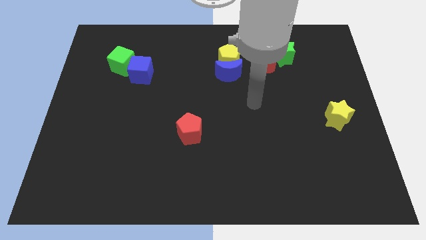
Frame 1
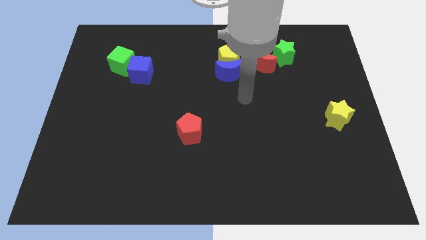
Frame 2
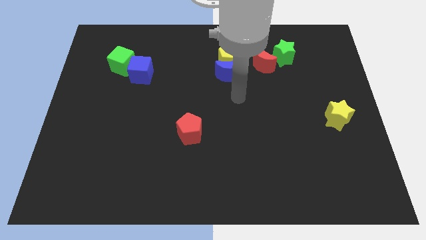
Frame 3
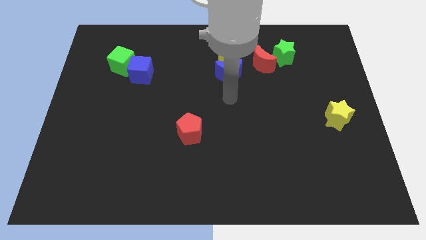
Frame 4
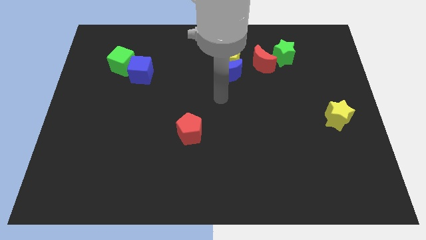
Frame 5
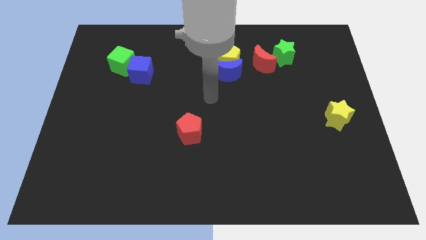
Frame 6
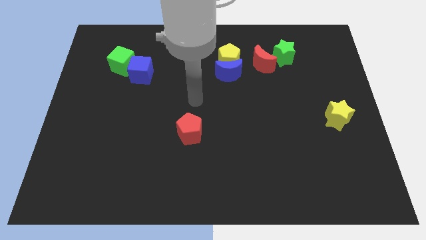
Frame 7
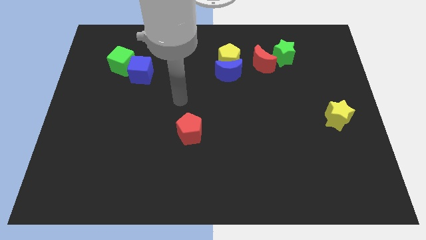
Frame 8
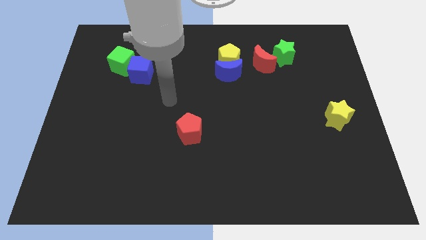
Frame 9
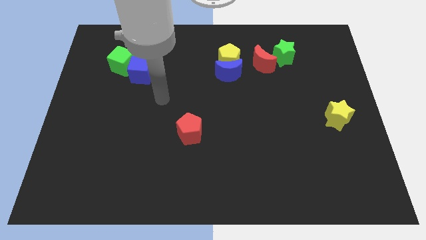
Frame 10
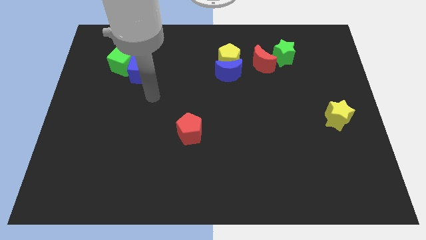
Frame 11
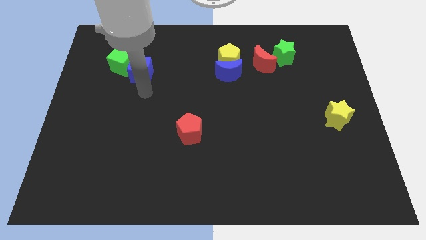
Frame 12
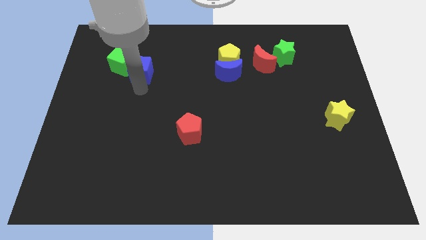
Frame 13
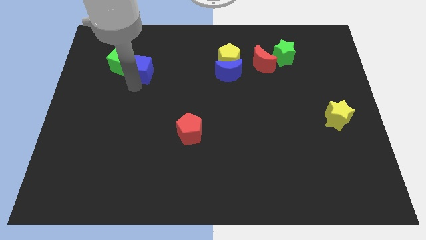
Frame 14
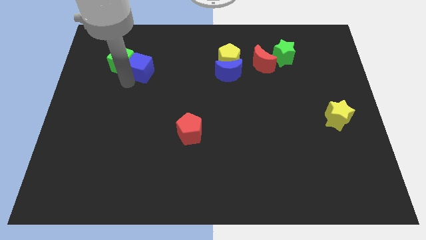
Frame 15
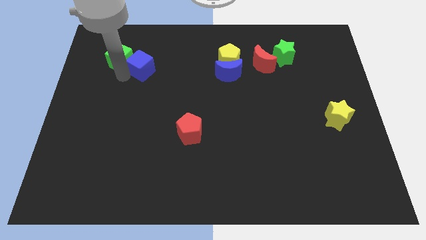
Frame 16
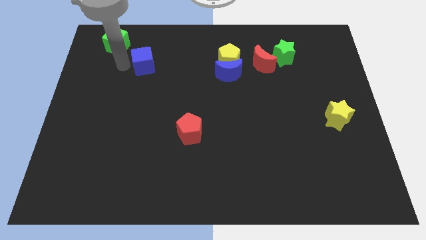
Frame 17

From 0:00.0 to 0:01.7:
separate the blue cube from the green cube

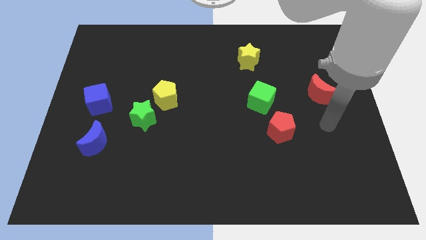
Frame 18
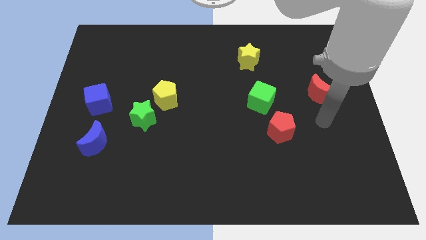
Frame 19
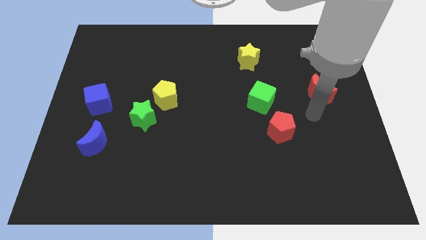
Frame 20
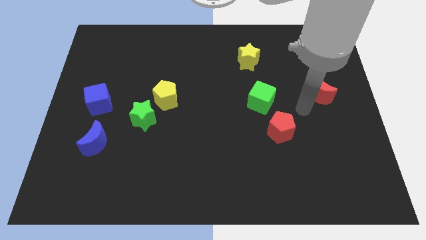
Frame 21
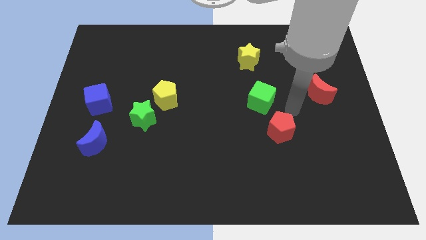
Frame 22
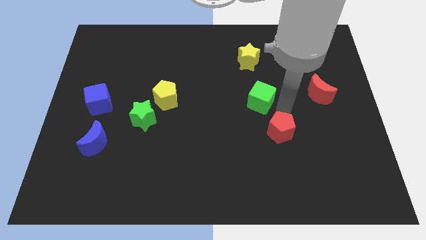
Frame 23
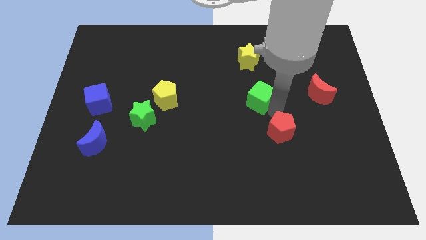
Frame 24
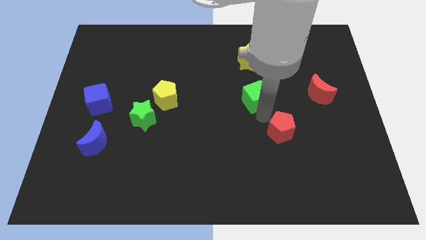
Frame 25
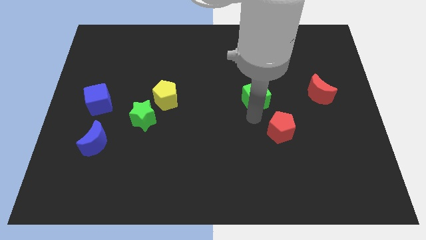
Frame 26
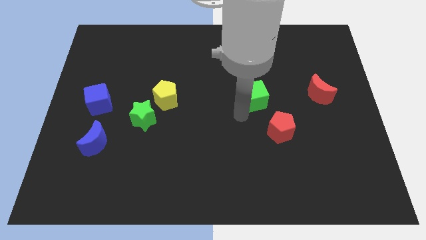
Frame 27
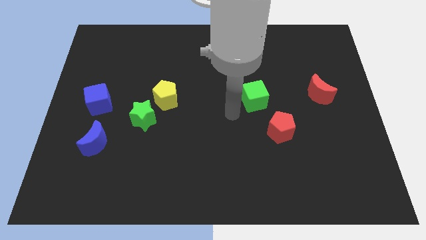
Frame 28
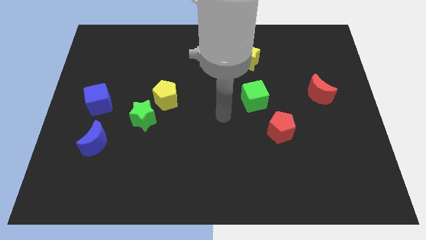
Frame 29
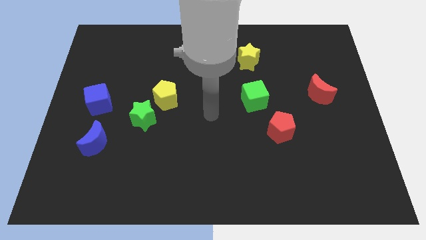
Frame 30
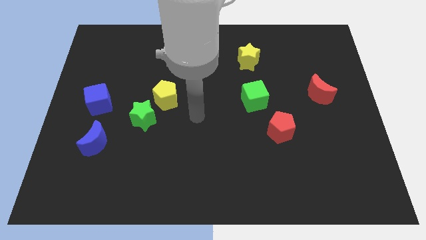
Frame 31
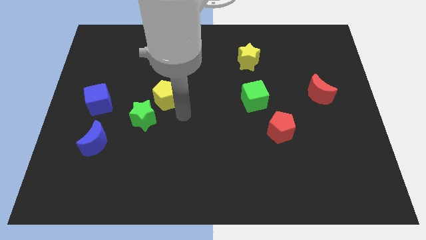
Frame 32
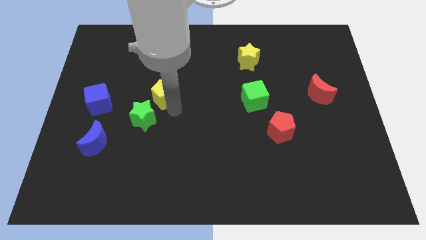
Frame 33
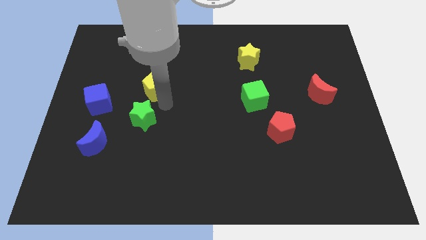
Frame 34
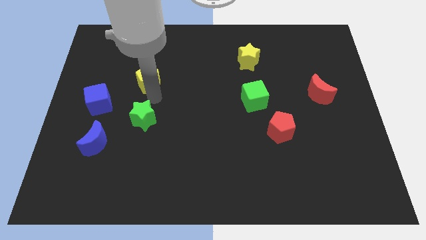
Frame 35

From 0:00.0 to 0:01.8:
move the green star away from the yellow pentagon

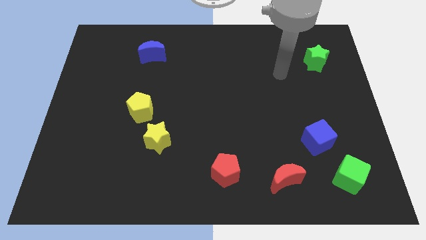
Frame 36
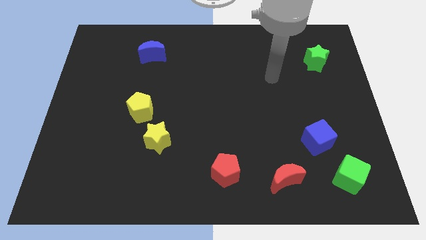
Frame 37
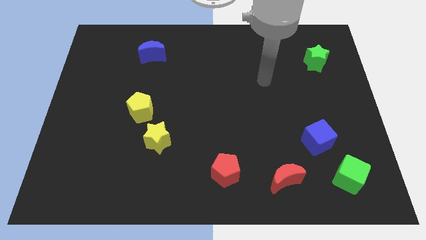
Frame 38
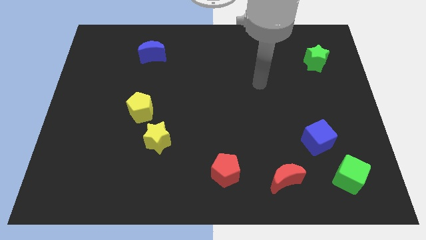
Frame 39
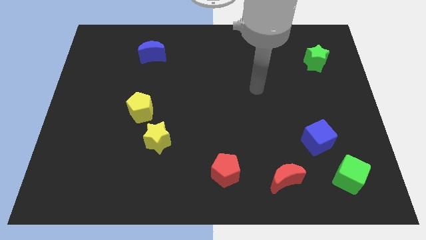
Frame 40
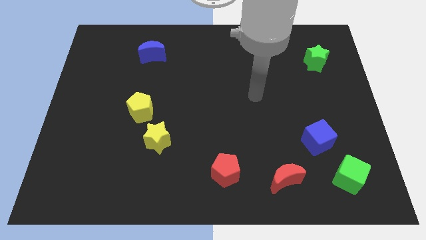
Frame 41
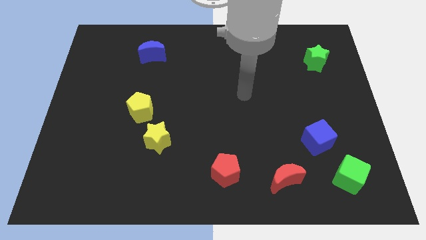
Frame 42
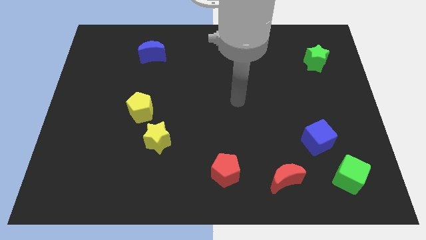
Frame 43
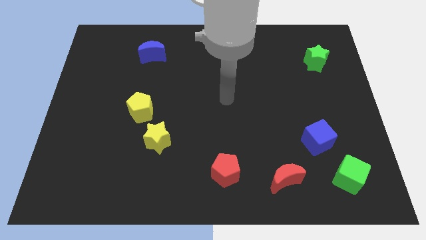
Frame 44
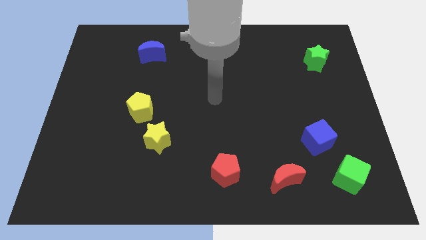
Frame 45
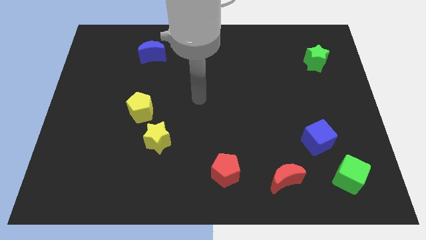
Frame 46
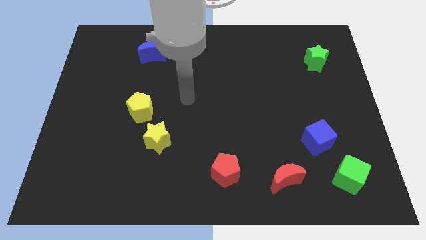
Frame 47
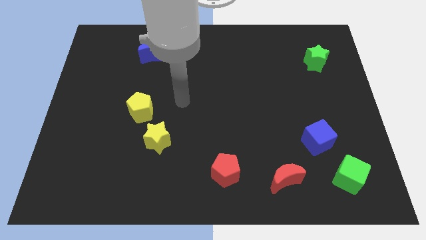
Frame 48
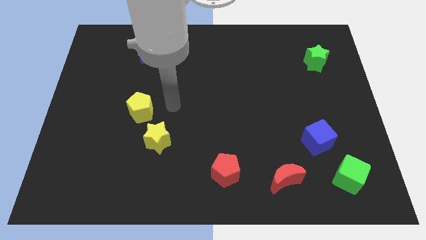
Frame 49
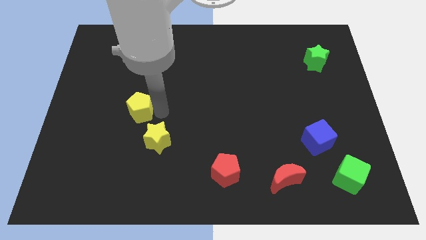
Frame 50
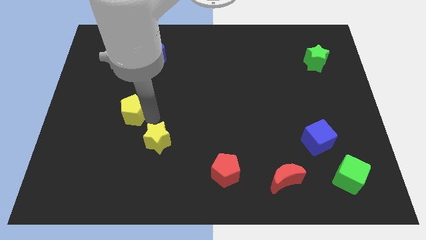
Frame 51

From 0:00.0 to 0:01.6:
pull the yellow star apart from the yellow pentagon

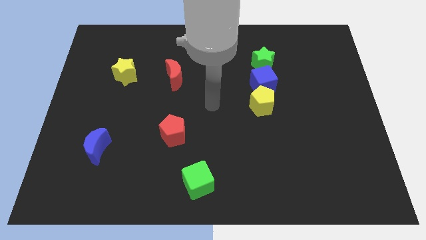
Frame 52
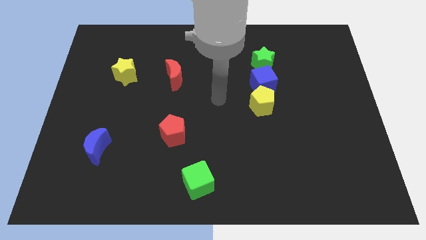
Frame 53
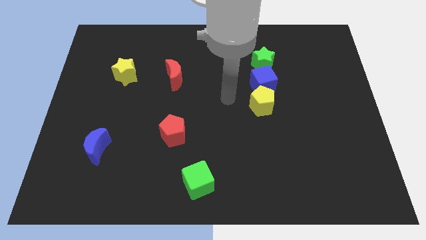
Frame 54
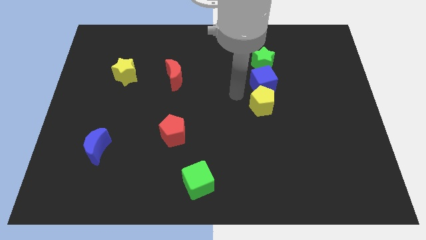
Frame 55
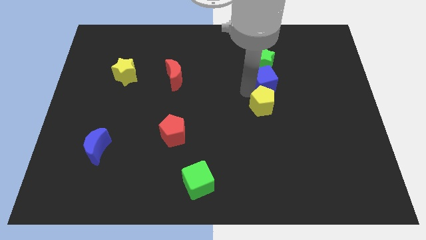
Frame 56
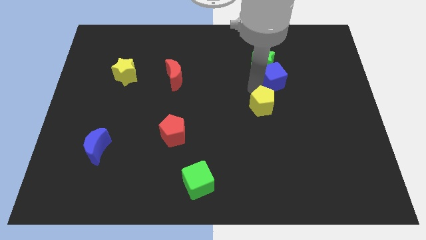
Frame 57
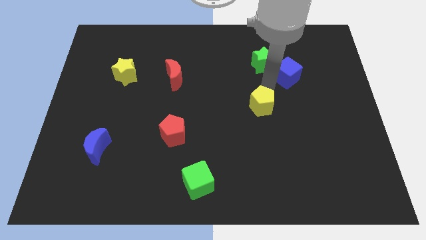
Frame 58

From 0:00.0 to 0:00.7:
separate the yellow pentagon from the blue cube

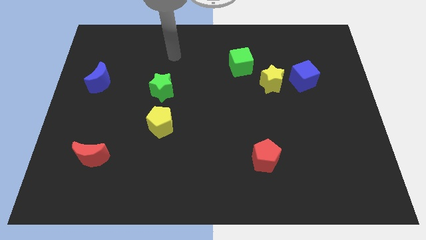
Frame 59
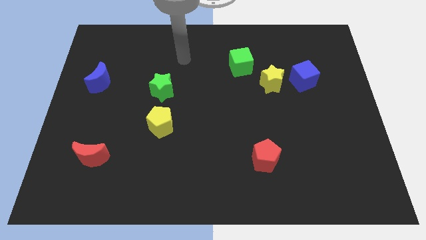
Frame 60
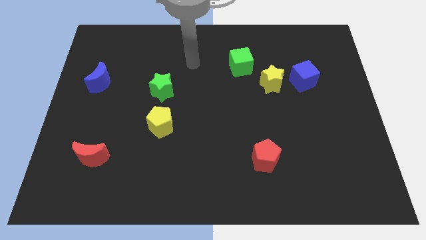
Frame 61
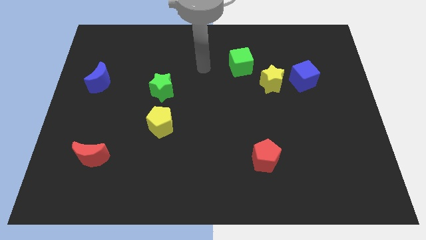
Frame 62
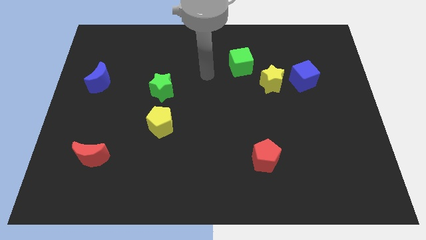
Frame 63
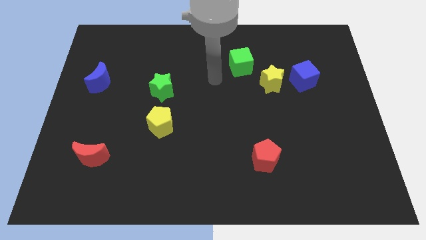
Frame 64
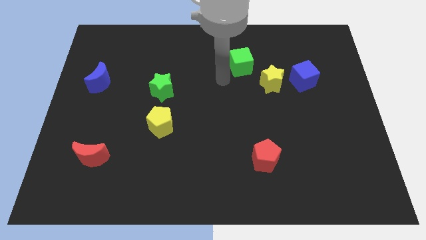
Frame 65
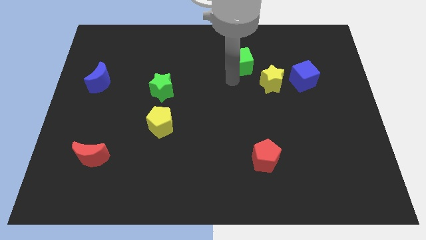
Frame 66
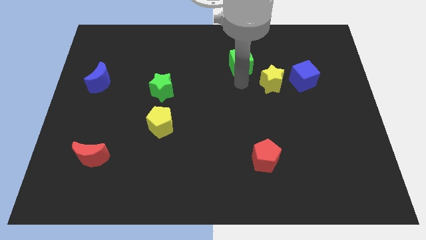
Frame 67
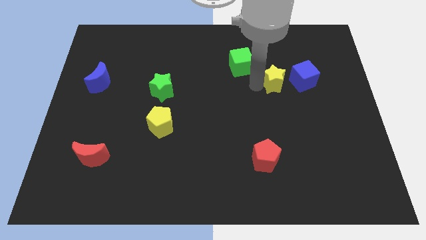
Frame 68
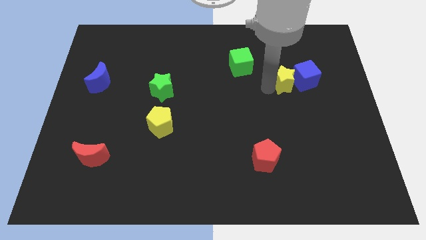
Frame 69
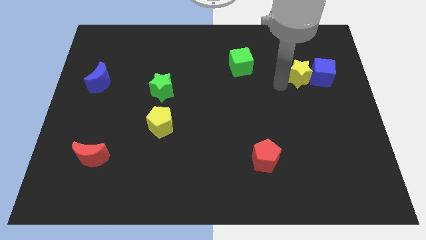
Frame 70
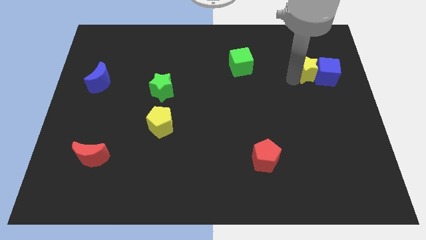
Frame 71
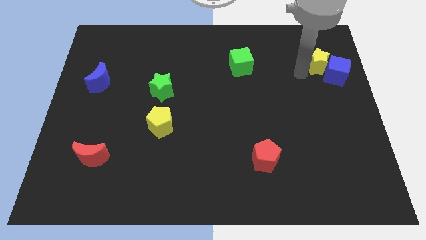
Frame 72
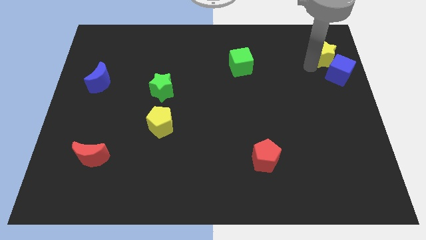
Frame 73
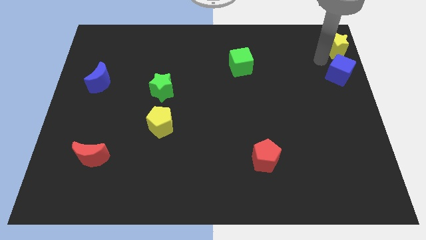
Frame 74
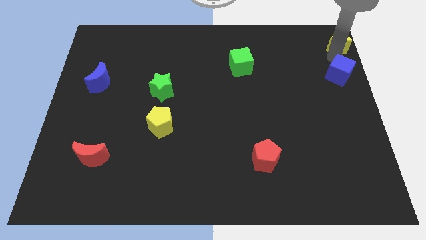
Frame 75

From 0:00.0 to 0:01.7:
move the blue cube away from the yellow star

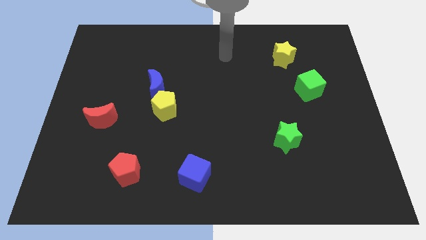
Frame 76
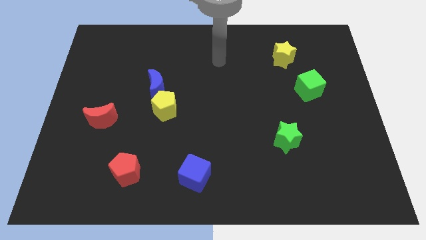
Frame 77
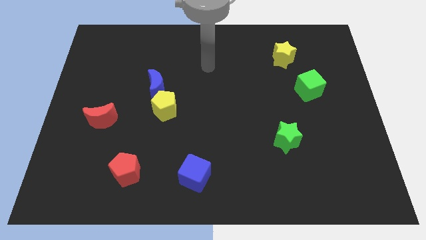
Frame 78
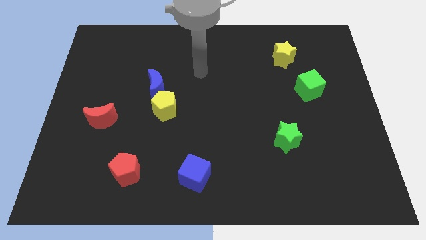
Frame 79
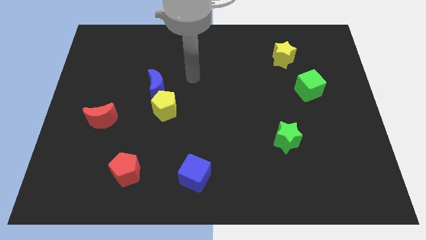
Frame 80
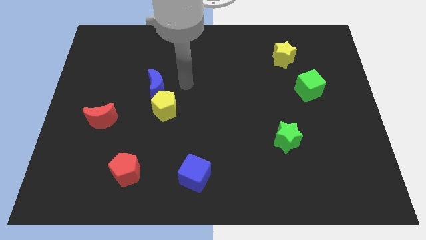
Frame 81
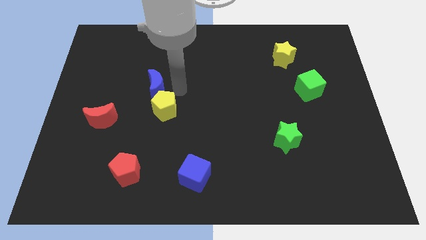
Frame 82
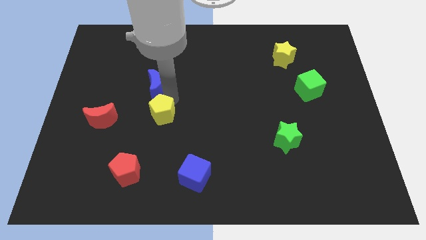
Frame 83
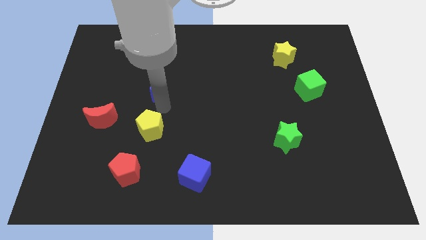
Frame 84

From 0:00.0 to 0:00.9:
move the blue moon away from the yellow pentagon

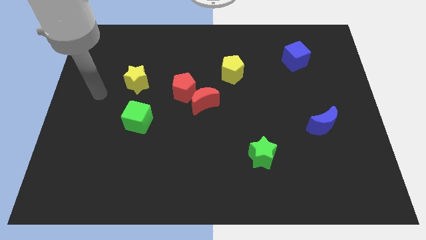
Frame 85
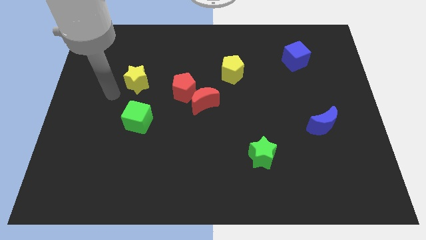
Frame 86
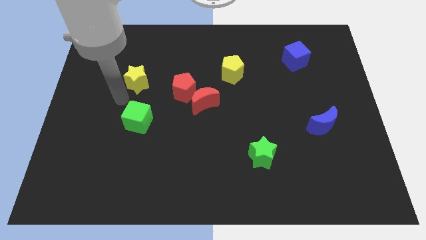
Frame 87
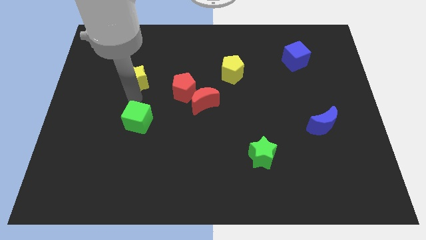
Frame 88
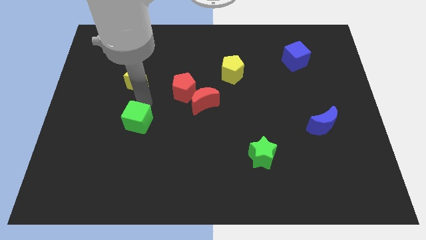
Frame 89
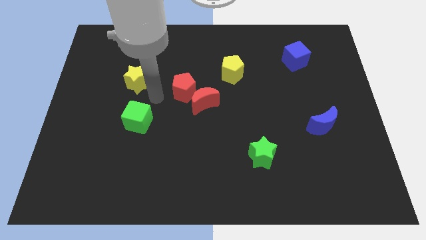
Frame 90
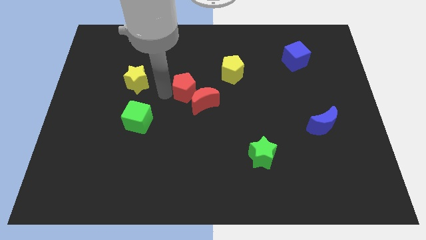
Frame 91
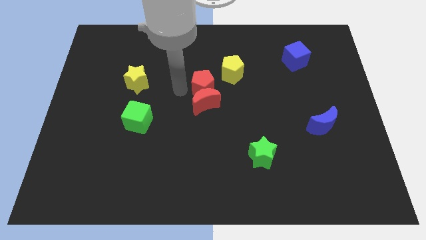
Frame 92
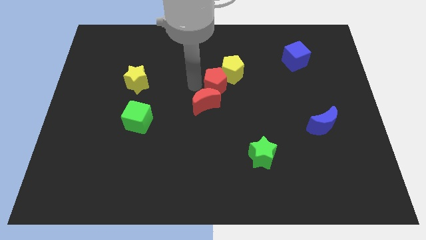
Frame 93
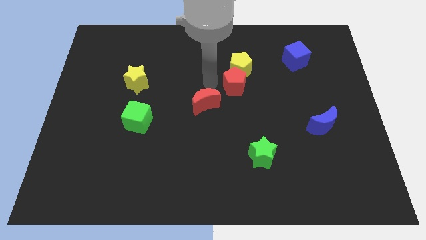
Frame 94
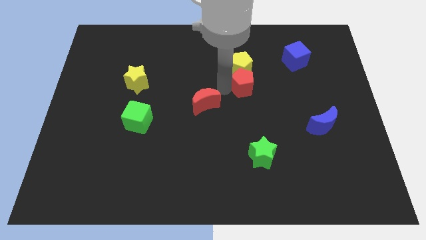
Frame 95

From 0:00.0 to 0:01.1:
pull the red moon apart from the red pentagon
